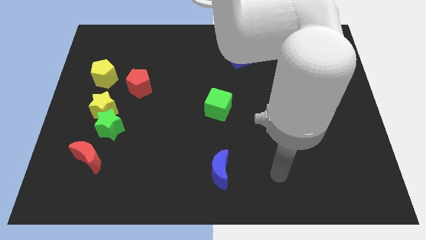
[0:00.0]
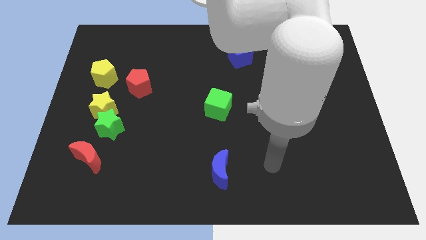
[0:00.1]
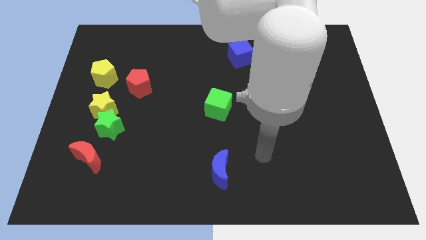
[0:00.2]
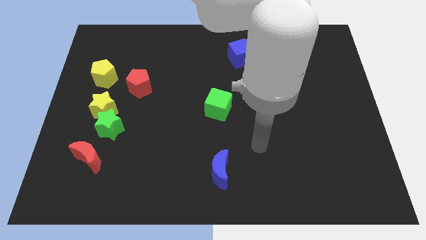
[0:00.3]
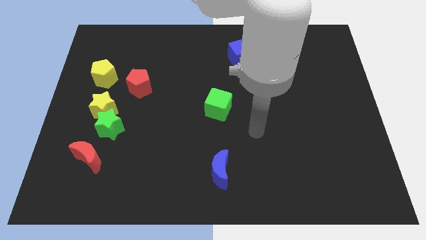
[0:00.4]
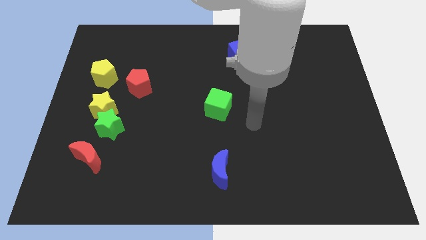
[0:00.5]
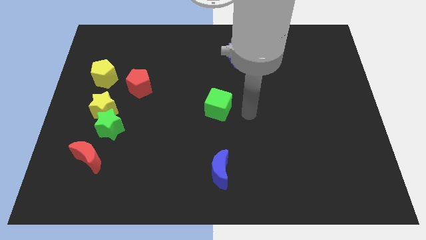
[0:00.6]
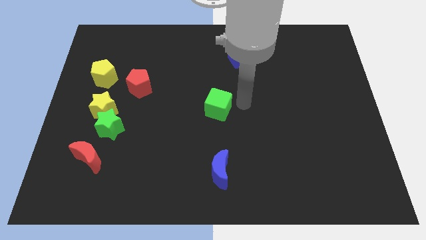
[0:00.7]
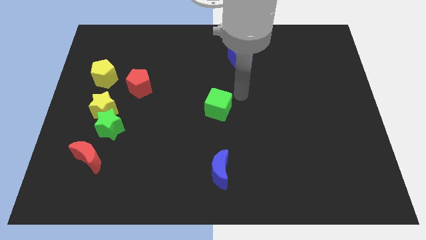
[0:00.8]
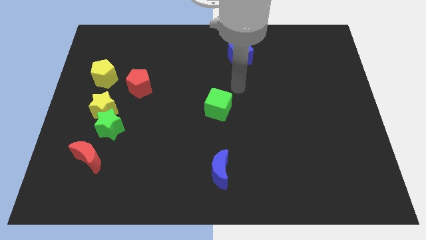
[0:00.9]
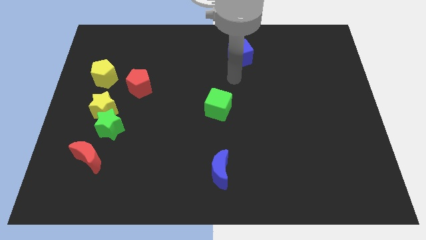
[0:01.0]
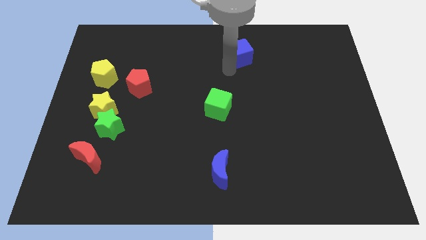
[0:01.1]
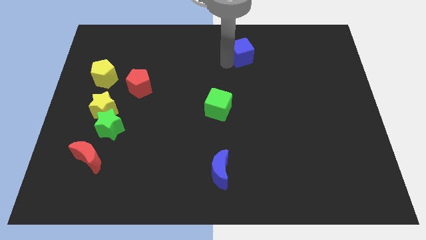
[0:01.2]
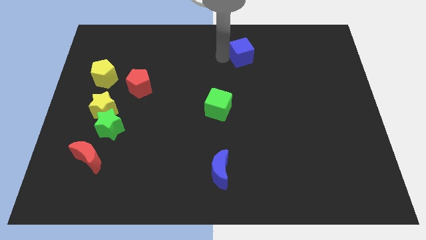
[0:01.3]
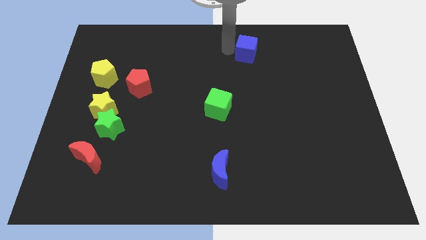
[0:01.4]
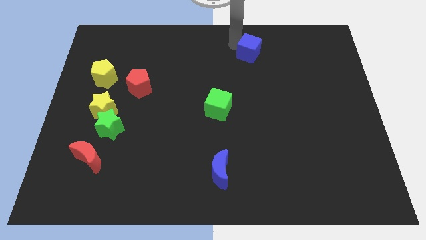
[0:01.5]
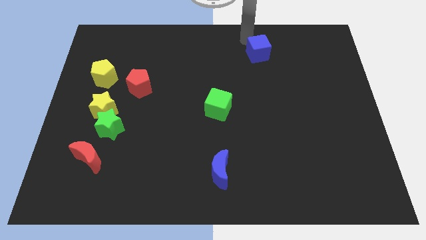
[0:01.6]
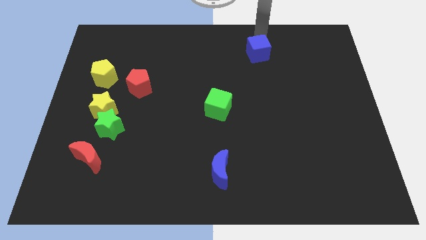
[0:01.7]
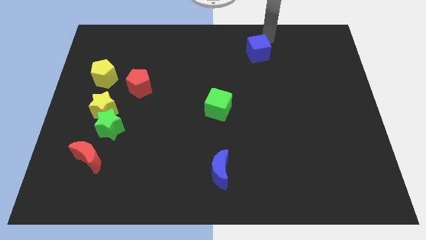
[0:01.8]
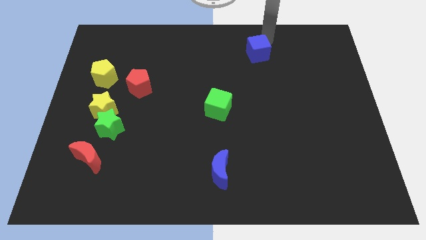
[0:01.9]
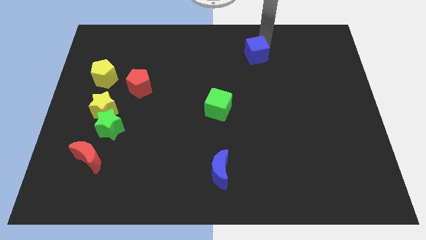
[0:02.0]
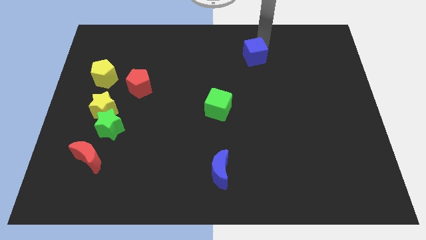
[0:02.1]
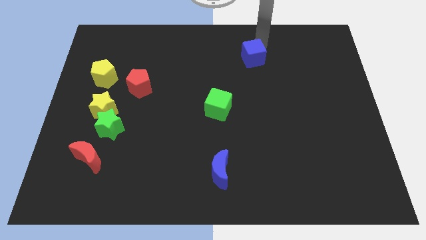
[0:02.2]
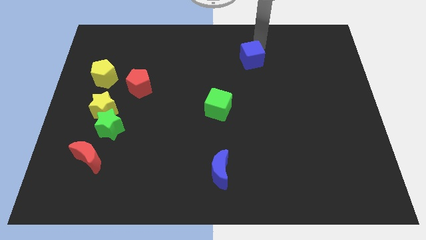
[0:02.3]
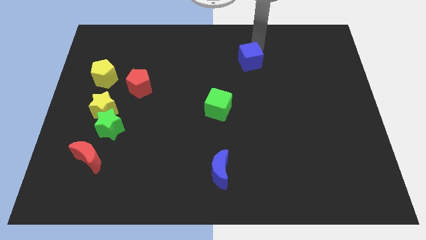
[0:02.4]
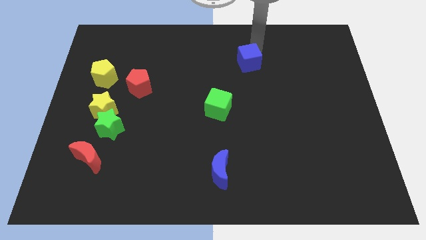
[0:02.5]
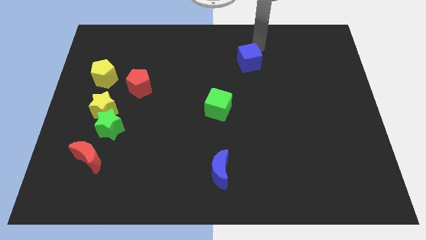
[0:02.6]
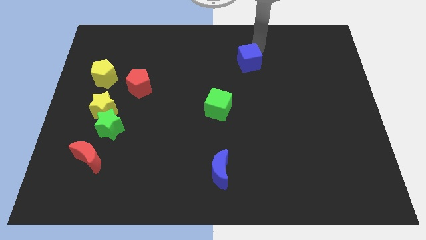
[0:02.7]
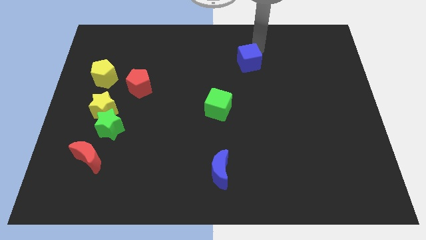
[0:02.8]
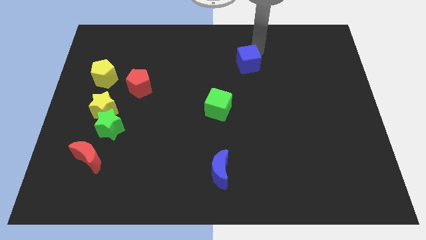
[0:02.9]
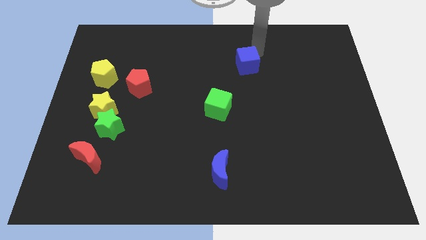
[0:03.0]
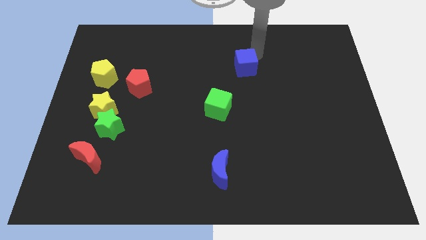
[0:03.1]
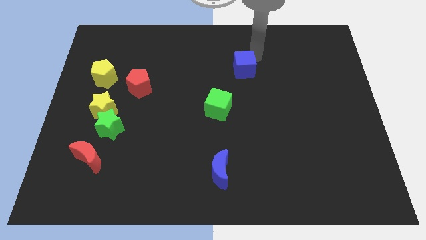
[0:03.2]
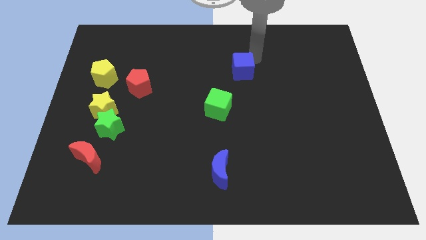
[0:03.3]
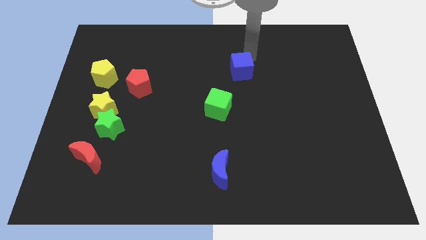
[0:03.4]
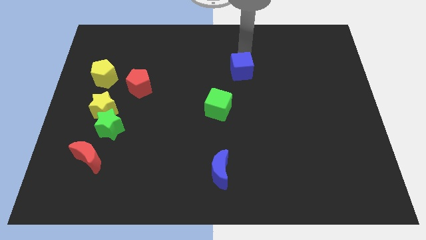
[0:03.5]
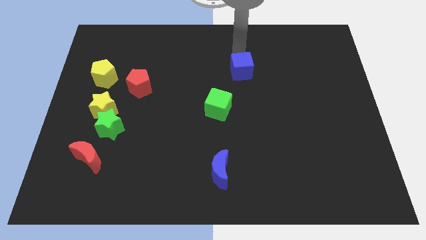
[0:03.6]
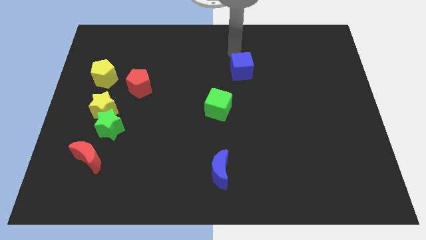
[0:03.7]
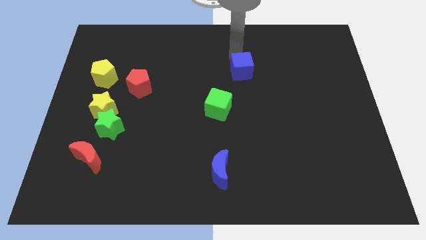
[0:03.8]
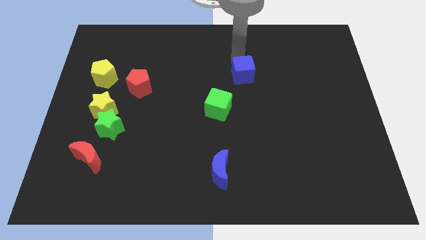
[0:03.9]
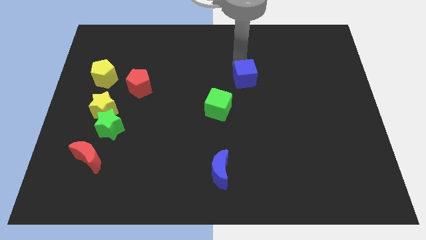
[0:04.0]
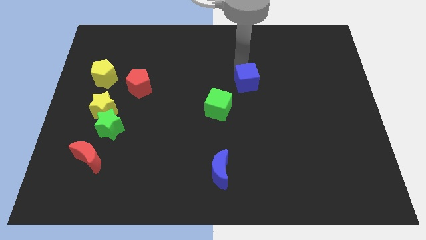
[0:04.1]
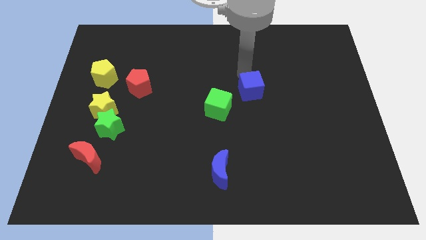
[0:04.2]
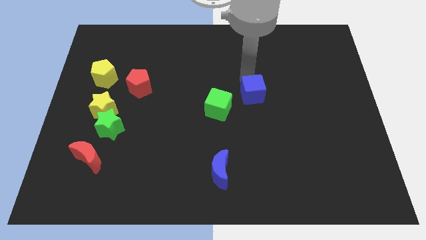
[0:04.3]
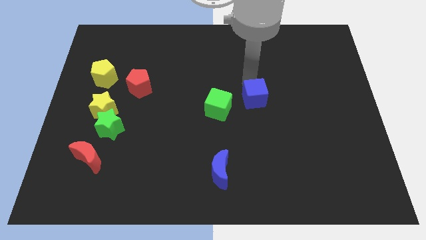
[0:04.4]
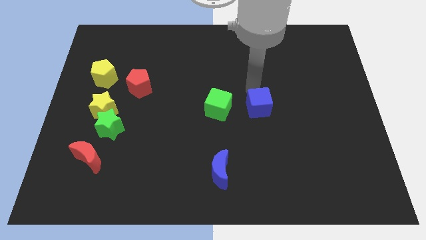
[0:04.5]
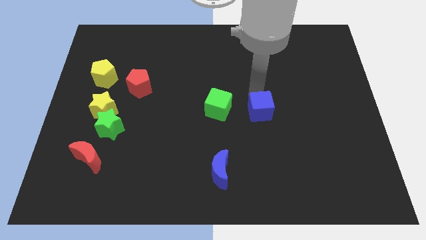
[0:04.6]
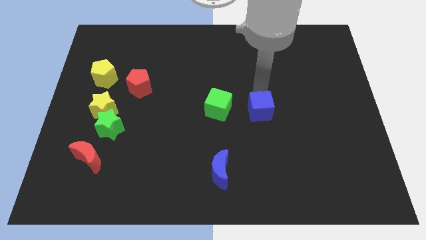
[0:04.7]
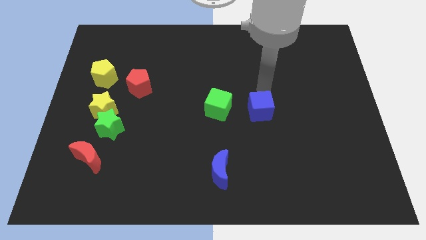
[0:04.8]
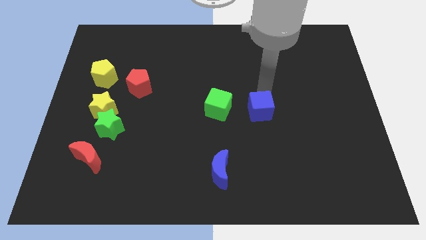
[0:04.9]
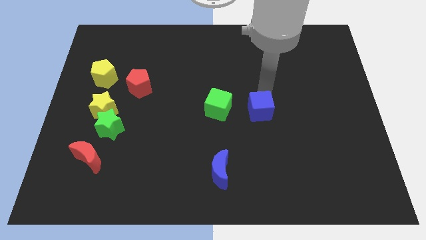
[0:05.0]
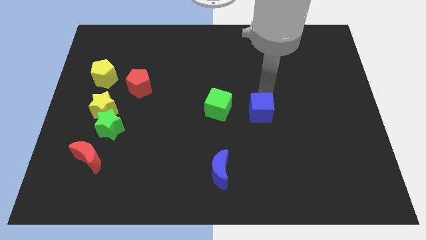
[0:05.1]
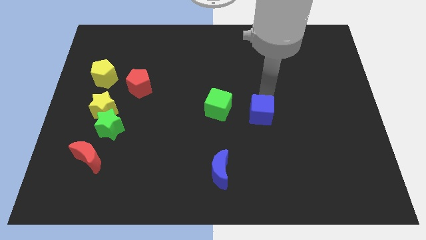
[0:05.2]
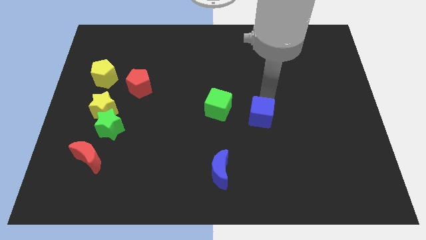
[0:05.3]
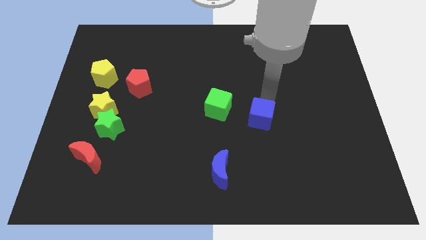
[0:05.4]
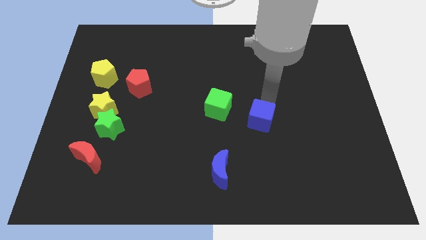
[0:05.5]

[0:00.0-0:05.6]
push the blue cube down

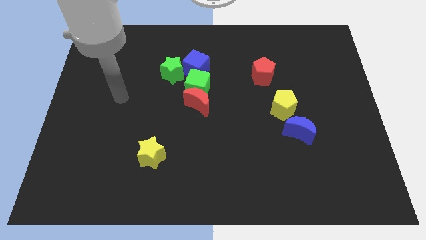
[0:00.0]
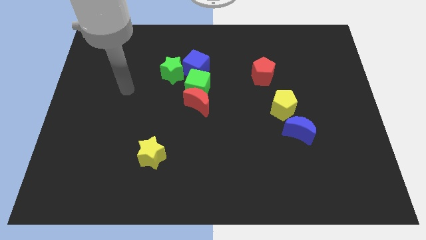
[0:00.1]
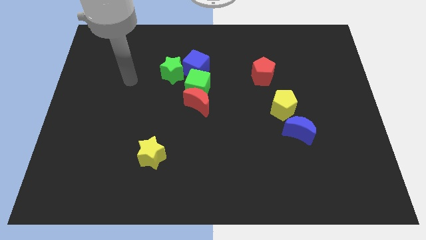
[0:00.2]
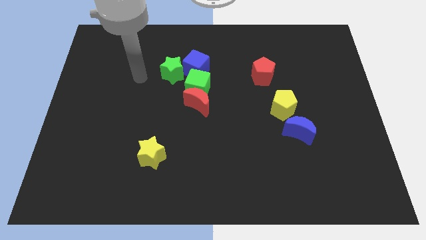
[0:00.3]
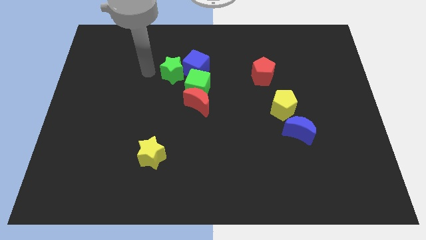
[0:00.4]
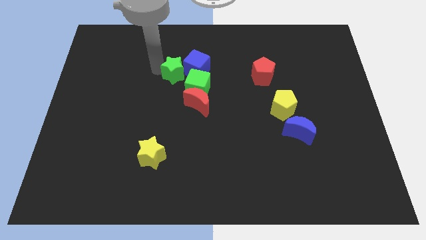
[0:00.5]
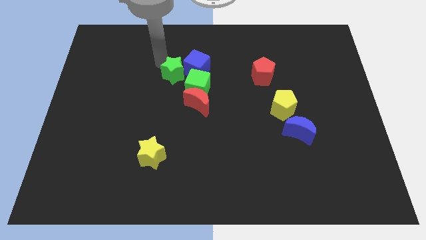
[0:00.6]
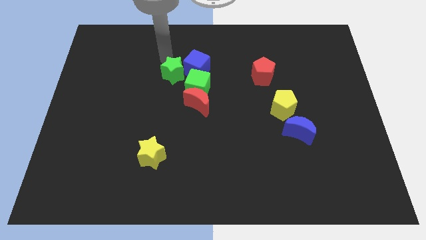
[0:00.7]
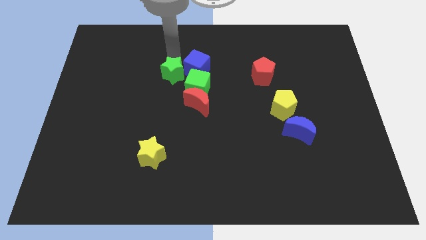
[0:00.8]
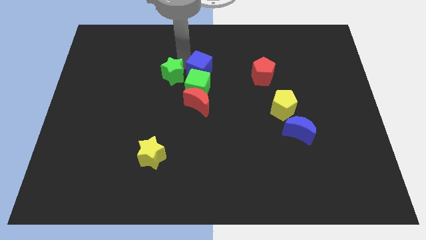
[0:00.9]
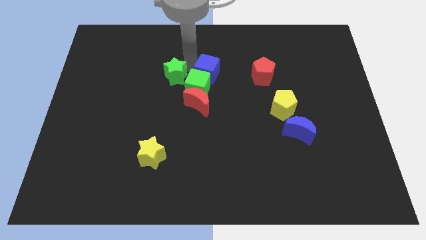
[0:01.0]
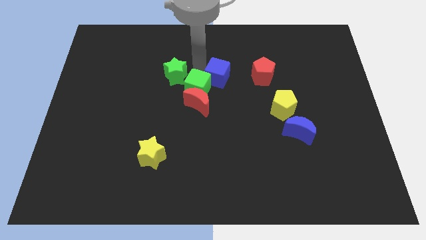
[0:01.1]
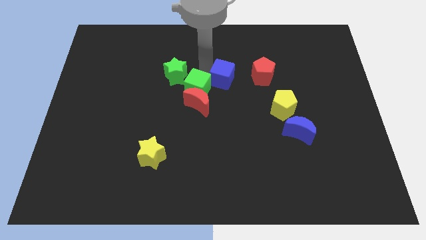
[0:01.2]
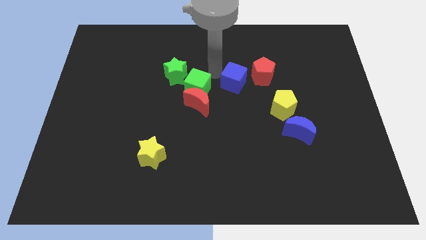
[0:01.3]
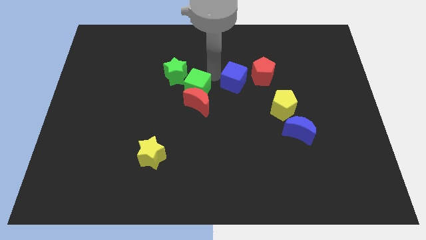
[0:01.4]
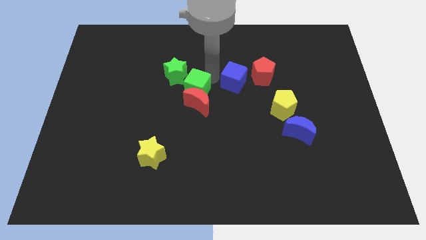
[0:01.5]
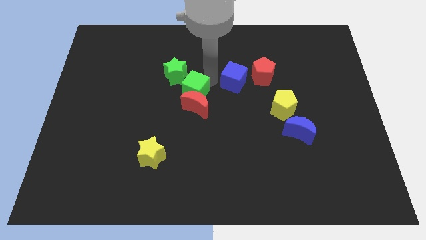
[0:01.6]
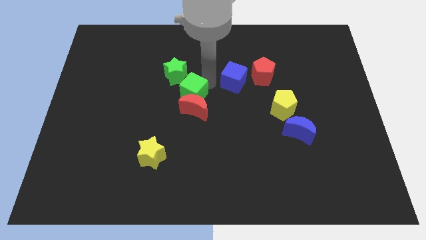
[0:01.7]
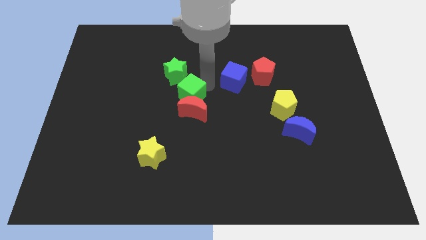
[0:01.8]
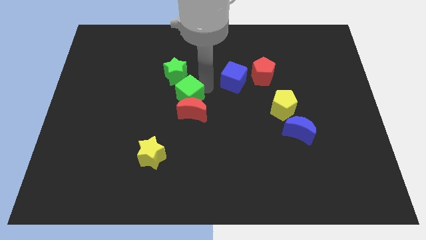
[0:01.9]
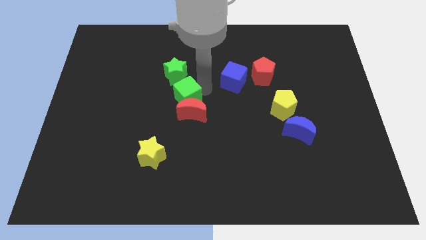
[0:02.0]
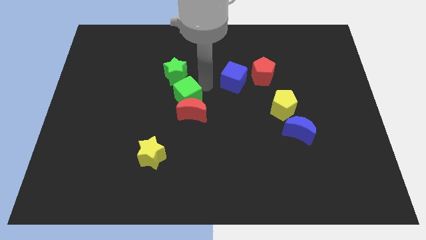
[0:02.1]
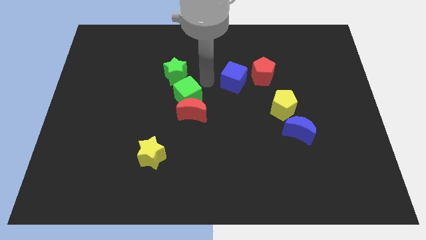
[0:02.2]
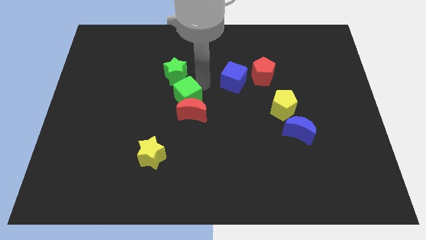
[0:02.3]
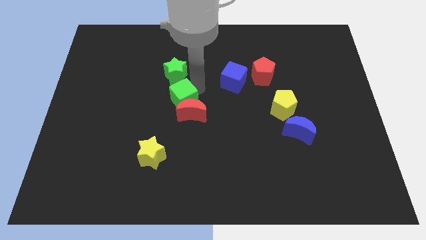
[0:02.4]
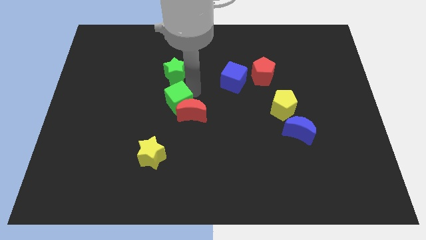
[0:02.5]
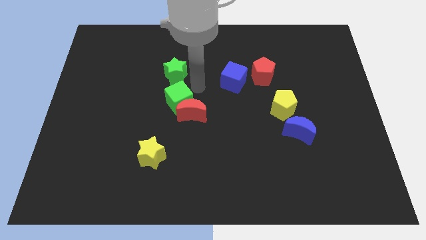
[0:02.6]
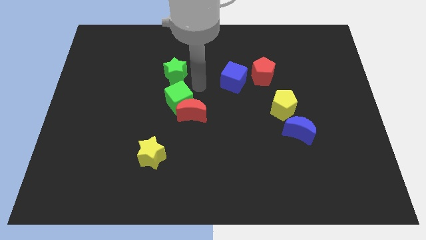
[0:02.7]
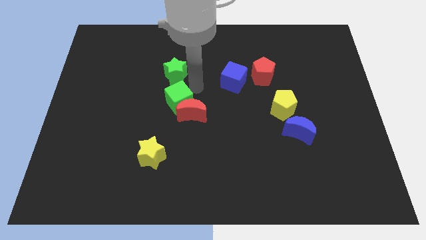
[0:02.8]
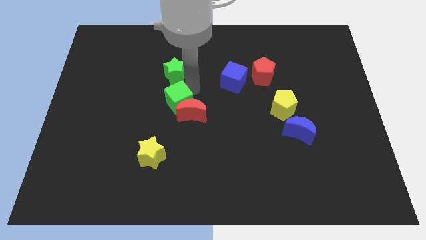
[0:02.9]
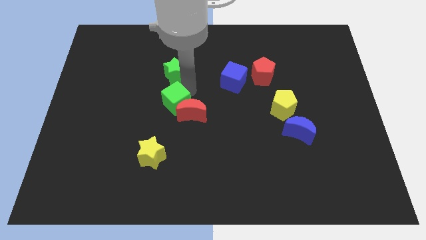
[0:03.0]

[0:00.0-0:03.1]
slightly push the green cube downwards and left diagonally
